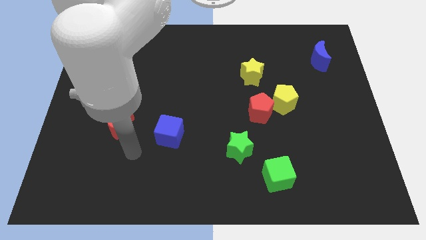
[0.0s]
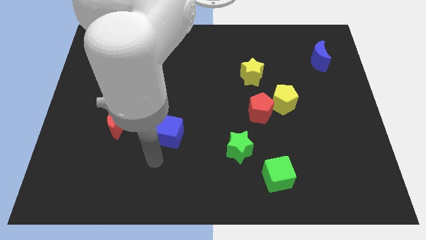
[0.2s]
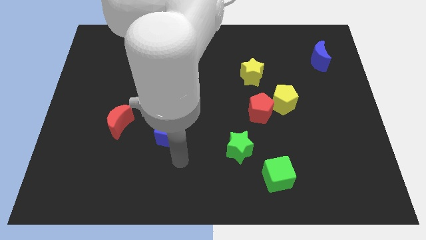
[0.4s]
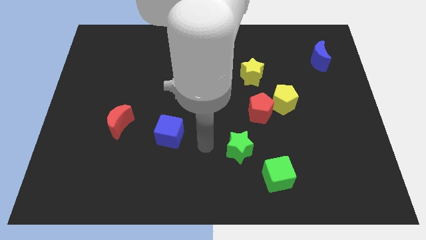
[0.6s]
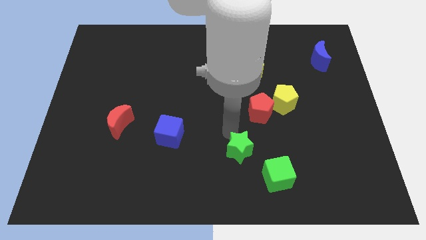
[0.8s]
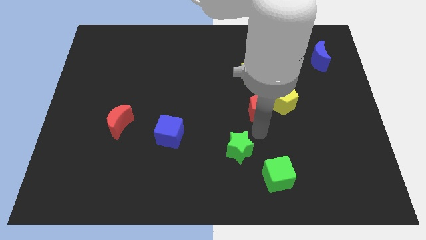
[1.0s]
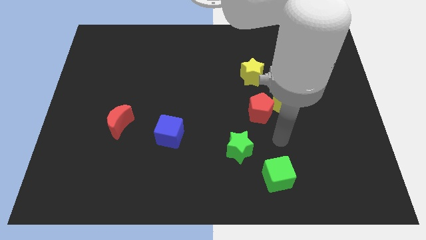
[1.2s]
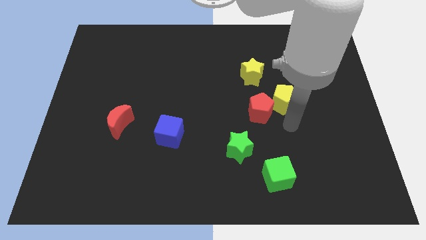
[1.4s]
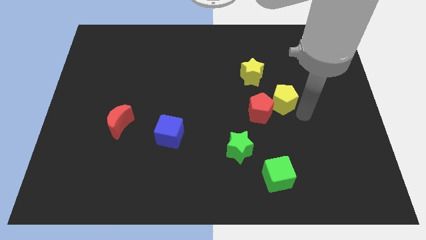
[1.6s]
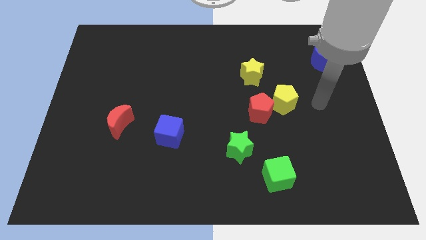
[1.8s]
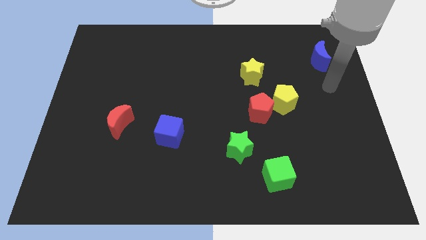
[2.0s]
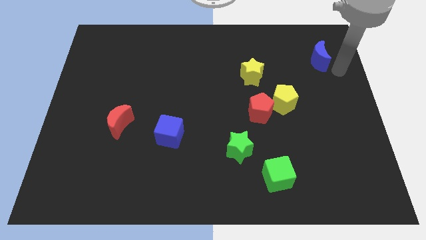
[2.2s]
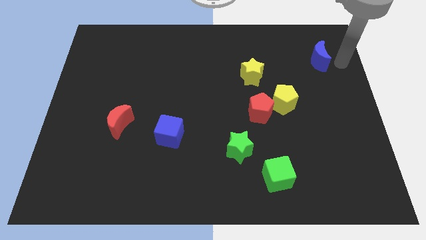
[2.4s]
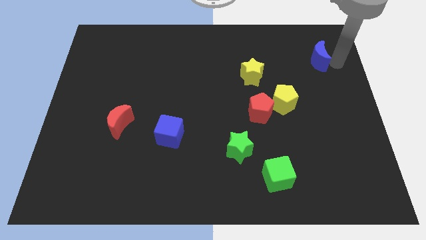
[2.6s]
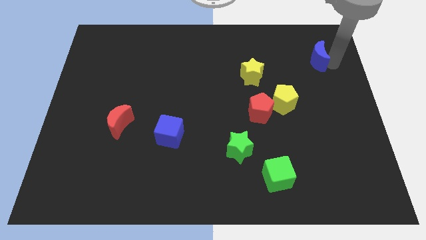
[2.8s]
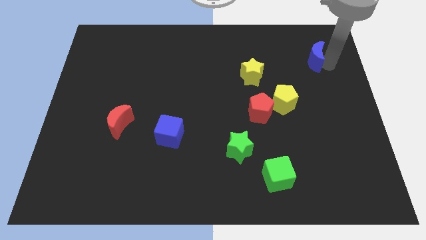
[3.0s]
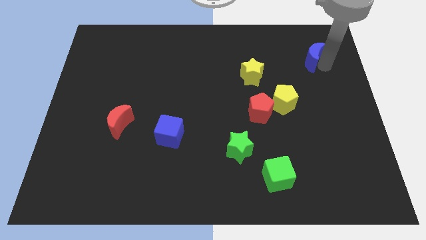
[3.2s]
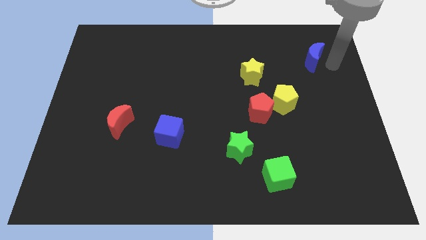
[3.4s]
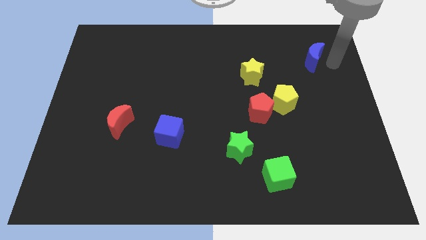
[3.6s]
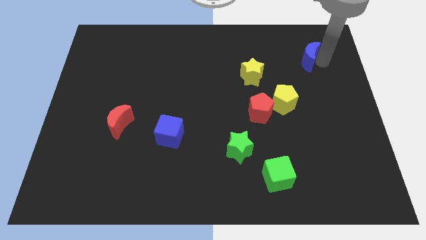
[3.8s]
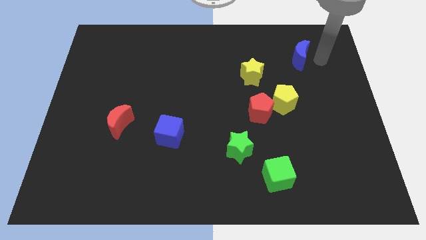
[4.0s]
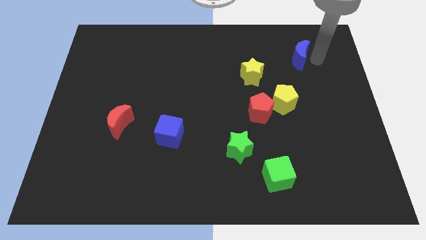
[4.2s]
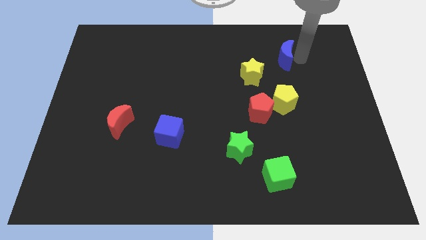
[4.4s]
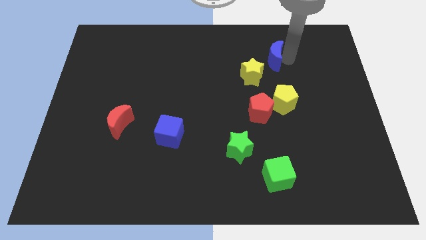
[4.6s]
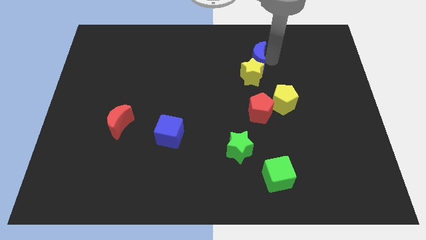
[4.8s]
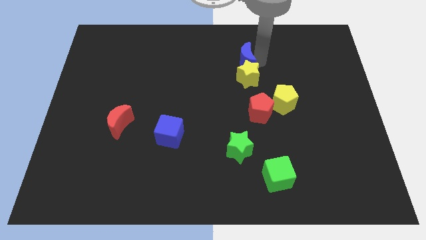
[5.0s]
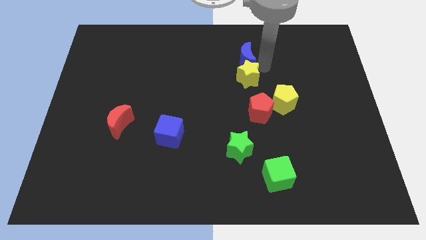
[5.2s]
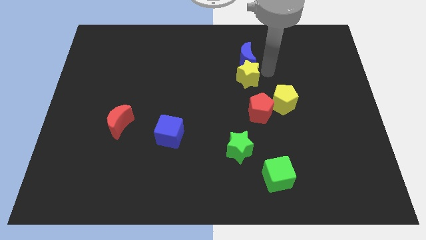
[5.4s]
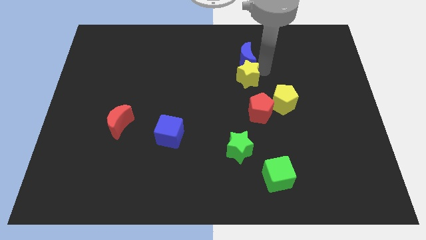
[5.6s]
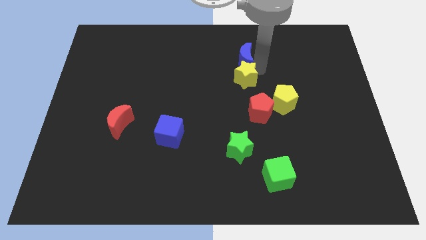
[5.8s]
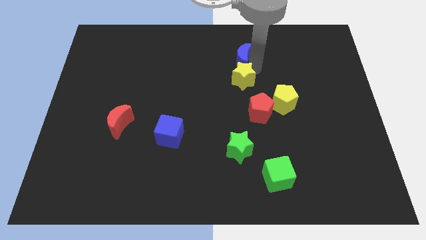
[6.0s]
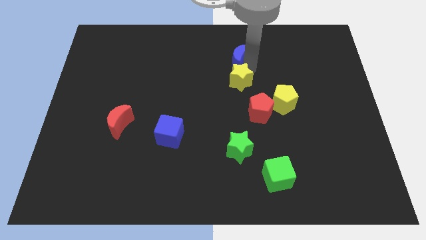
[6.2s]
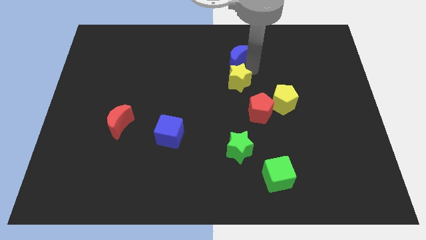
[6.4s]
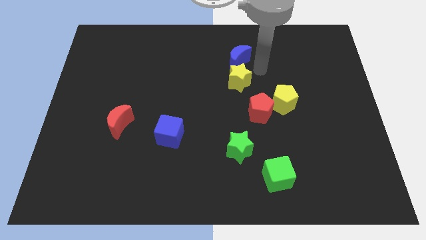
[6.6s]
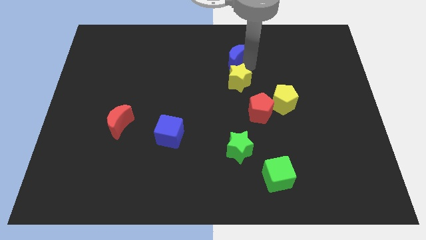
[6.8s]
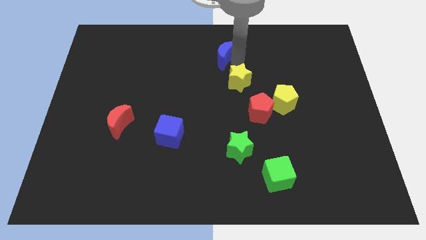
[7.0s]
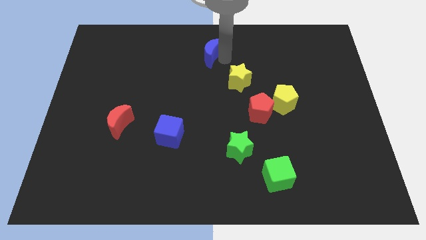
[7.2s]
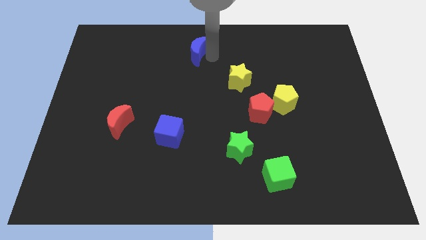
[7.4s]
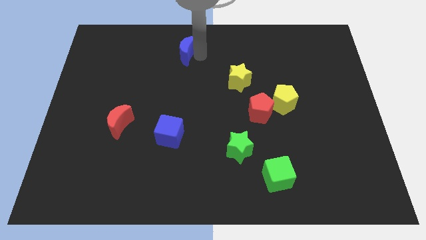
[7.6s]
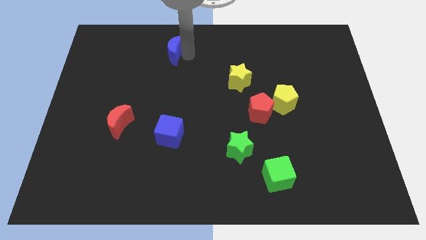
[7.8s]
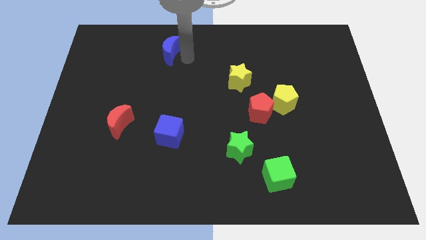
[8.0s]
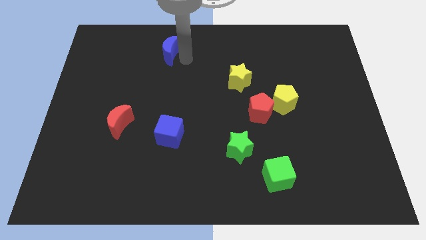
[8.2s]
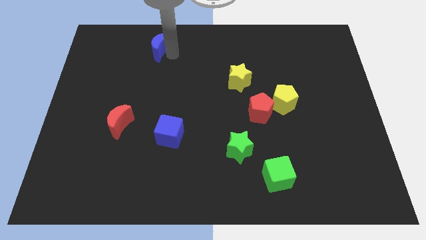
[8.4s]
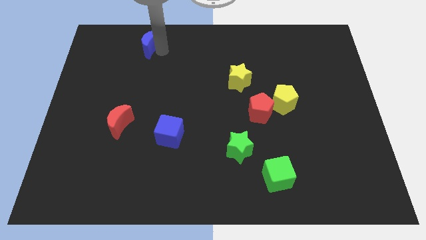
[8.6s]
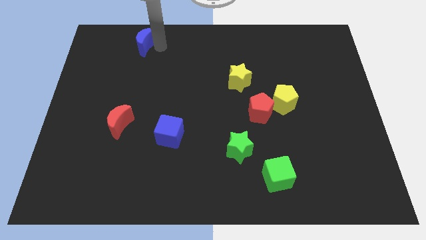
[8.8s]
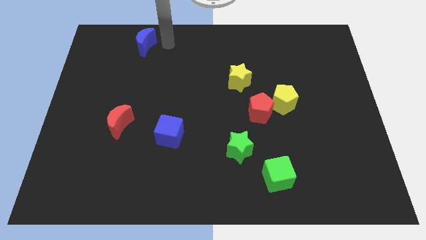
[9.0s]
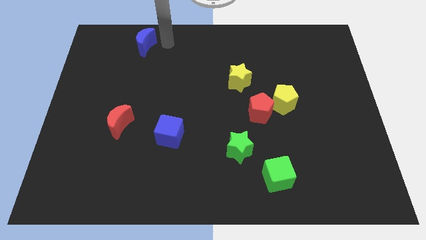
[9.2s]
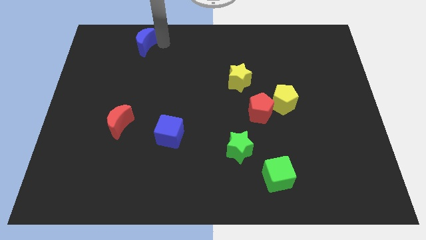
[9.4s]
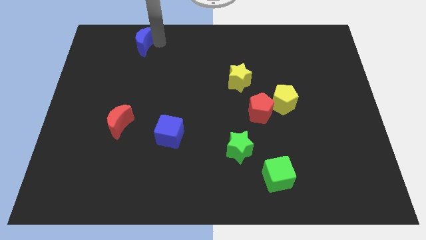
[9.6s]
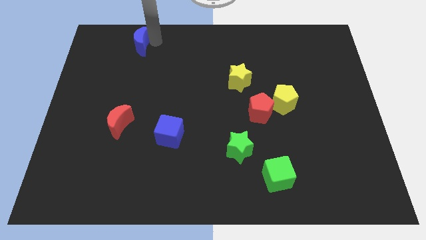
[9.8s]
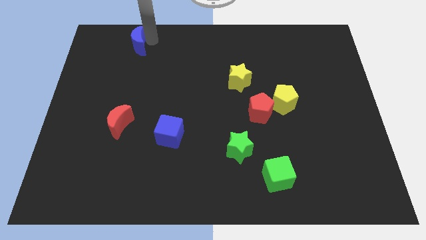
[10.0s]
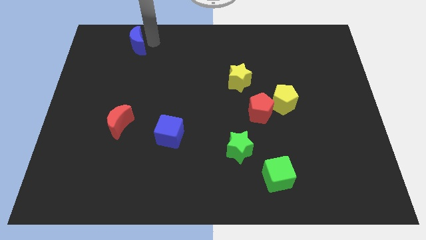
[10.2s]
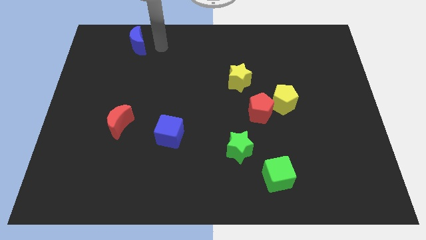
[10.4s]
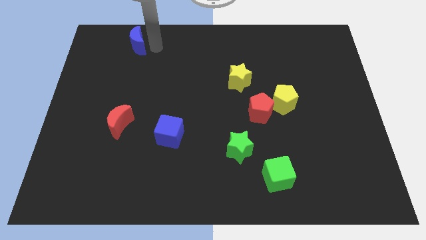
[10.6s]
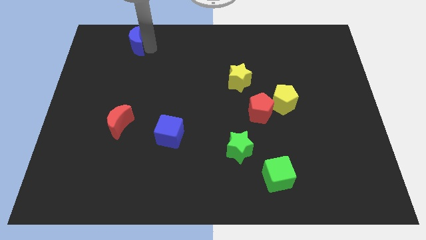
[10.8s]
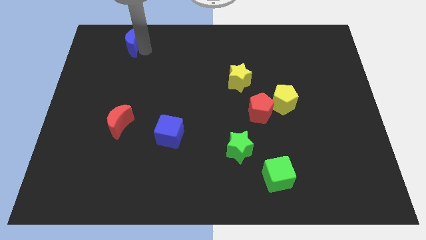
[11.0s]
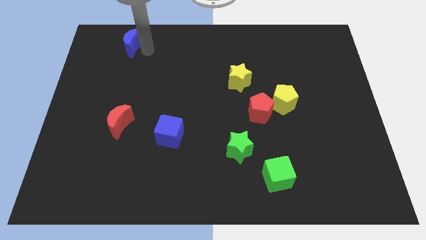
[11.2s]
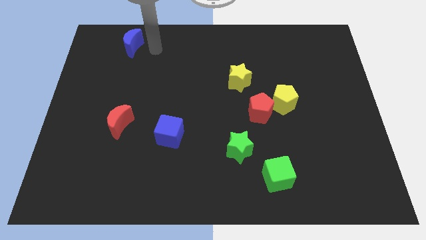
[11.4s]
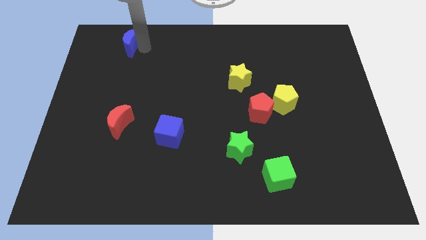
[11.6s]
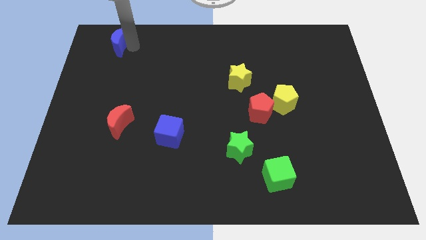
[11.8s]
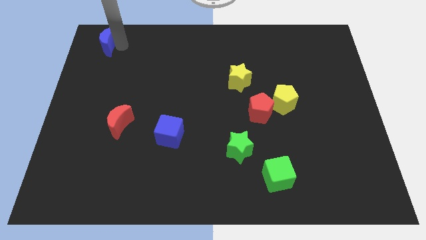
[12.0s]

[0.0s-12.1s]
put the blue moon to the top left of the board
